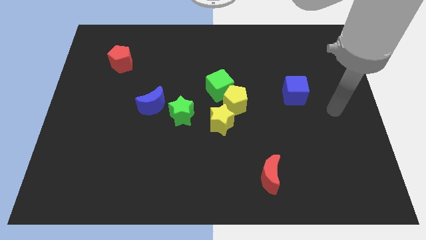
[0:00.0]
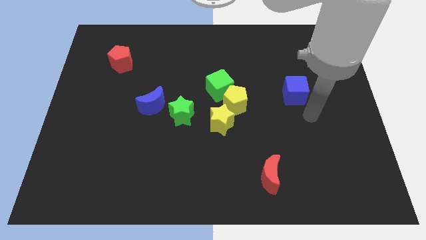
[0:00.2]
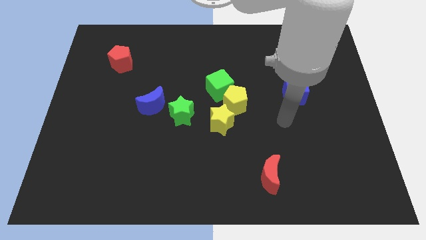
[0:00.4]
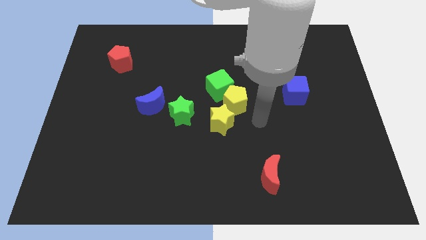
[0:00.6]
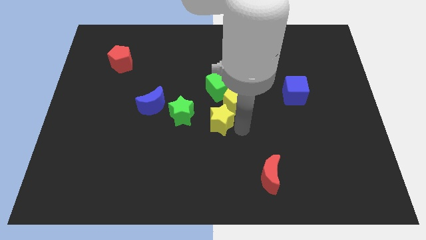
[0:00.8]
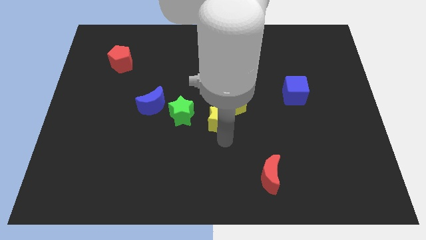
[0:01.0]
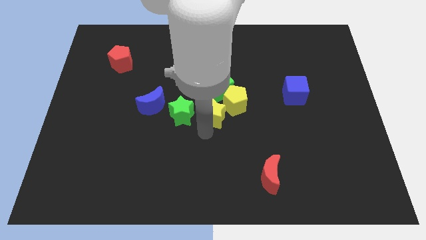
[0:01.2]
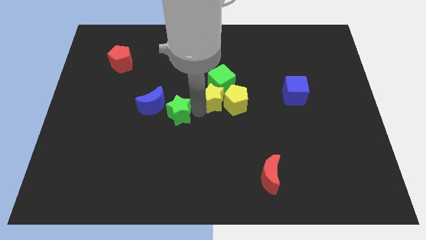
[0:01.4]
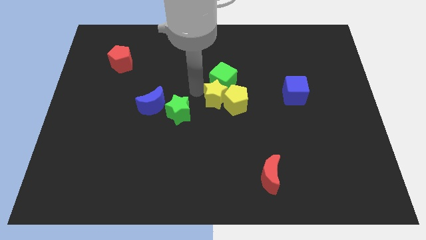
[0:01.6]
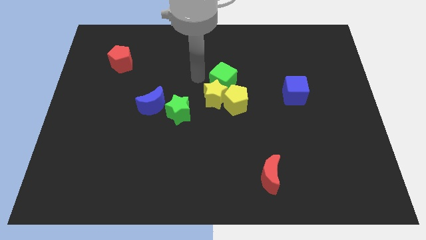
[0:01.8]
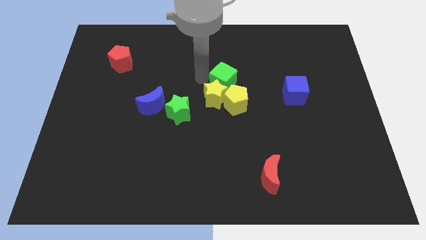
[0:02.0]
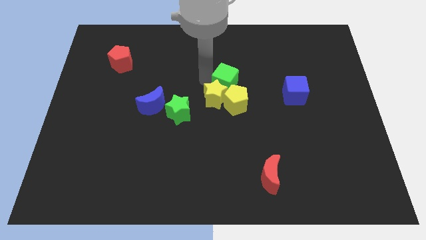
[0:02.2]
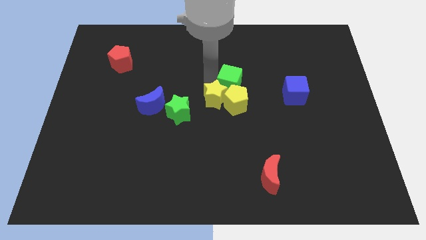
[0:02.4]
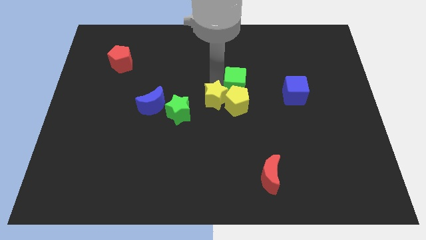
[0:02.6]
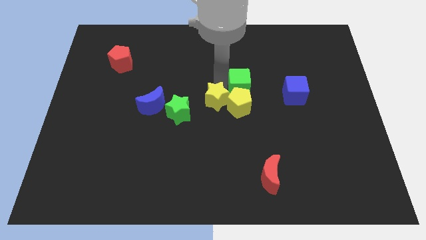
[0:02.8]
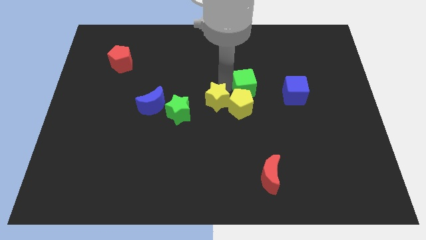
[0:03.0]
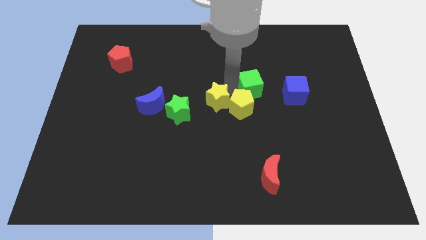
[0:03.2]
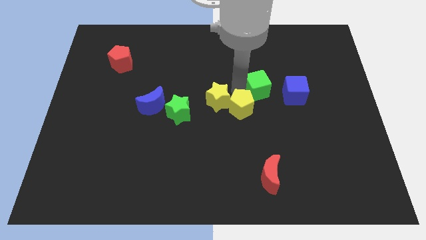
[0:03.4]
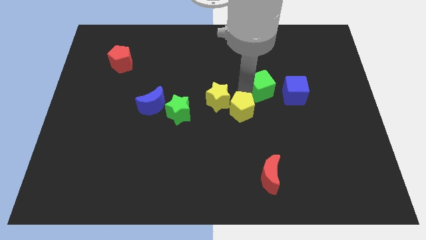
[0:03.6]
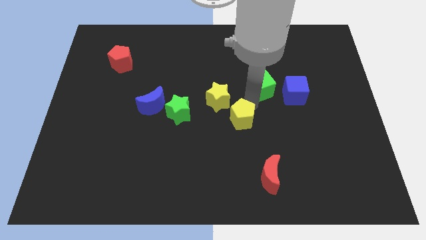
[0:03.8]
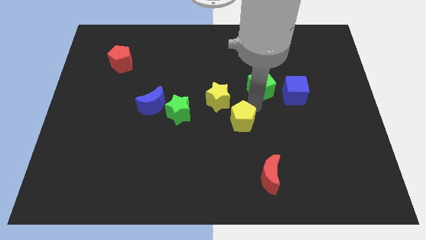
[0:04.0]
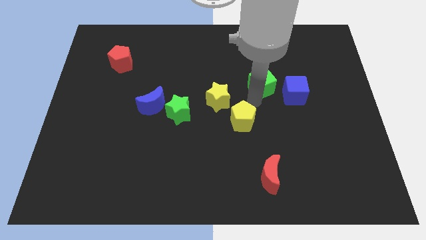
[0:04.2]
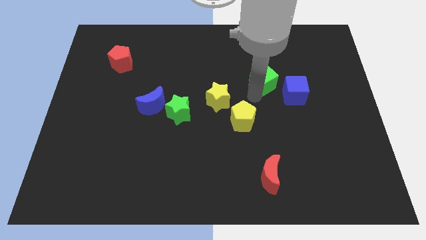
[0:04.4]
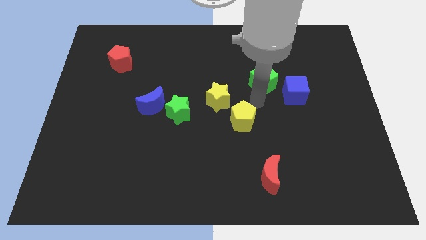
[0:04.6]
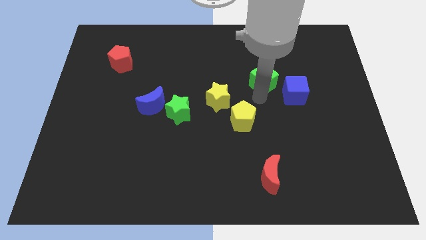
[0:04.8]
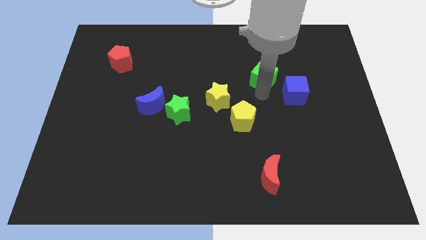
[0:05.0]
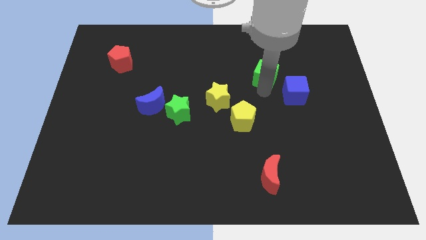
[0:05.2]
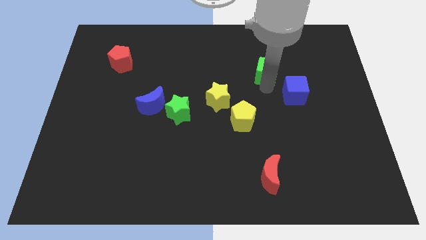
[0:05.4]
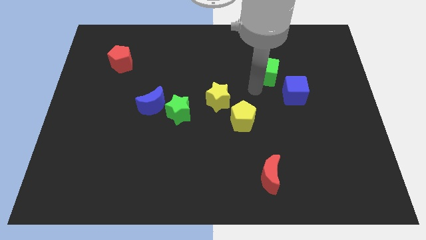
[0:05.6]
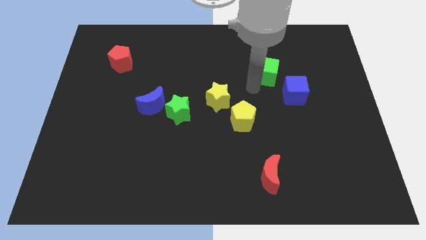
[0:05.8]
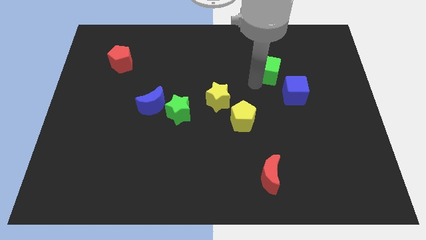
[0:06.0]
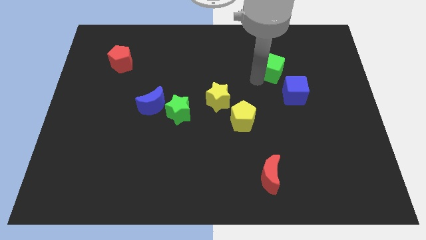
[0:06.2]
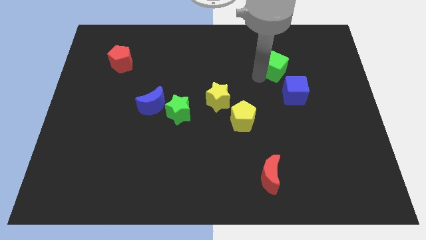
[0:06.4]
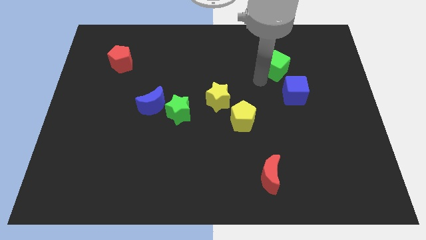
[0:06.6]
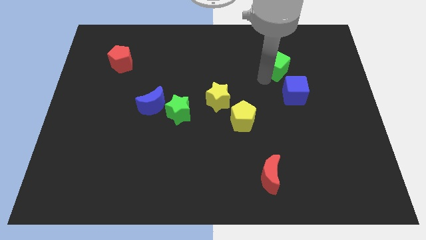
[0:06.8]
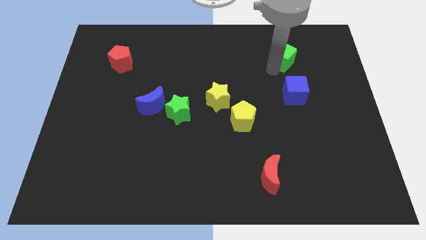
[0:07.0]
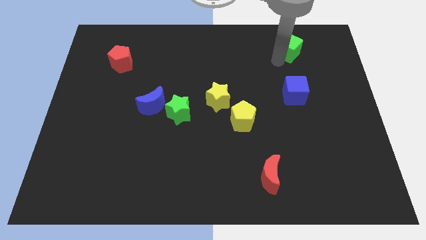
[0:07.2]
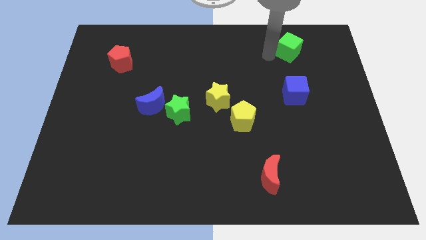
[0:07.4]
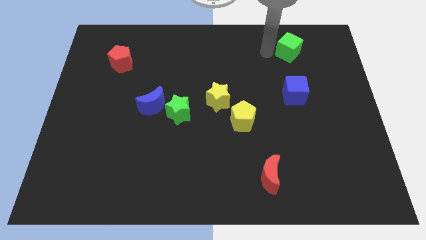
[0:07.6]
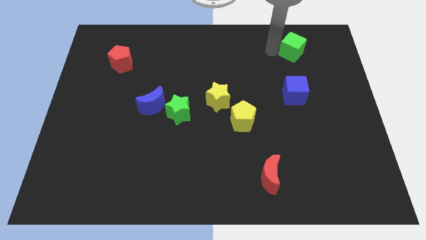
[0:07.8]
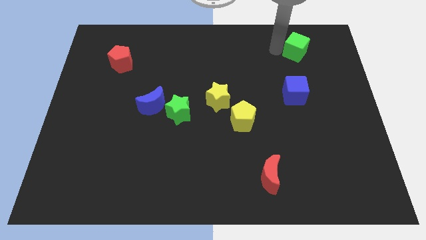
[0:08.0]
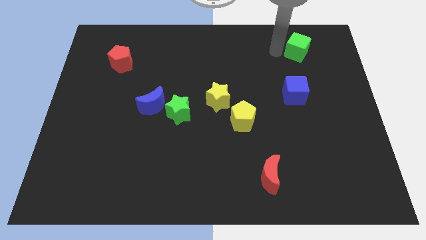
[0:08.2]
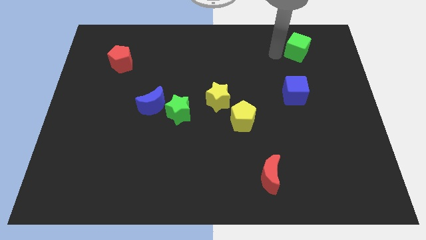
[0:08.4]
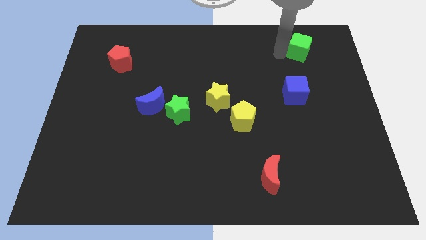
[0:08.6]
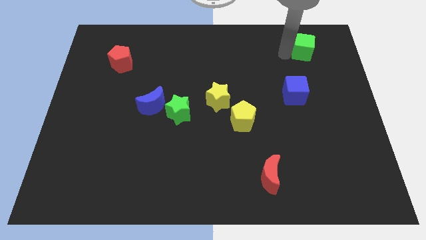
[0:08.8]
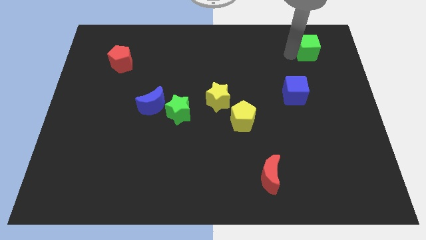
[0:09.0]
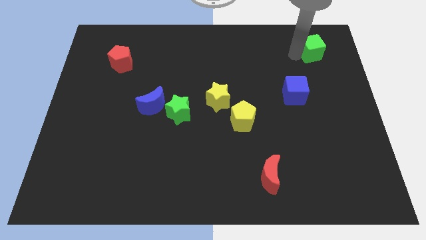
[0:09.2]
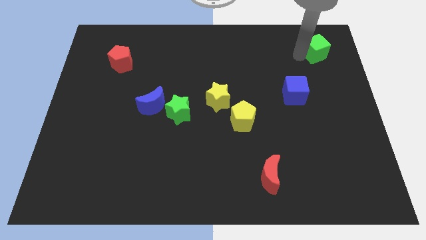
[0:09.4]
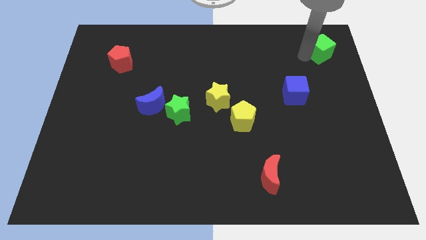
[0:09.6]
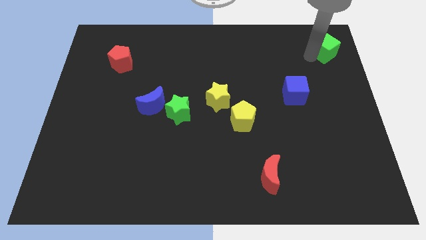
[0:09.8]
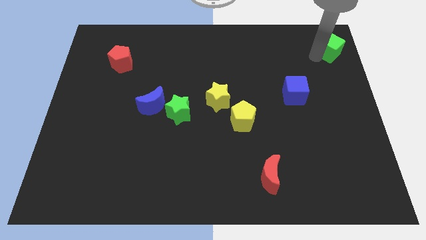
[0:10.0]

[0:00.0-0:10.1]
move the green cube to the top right of the board

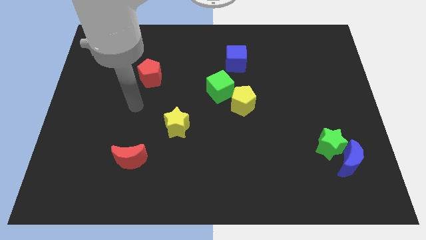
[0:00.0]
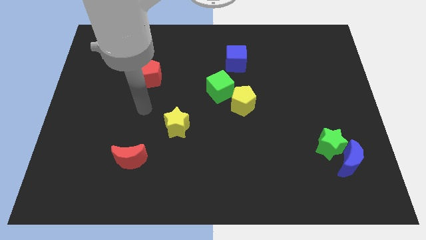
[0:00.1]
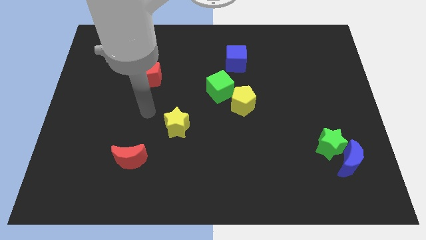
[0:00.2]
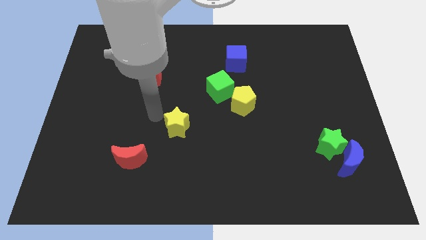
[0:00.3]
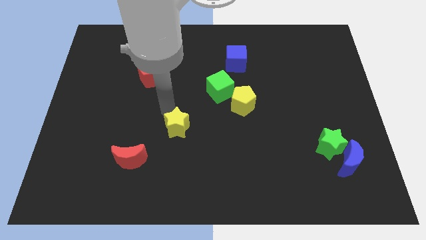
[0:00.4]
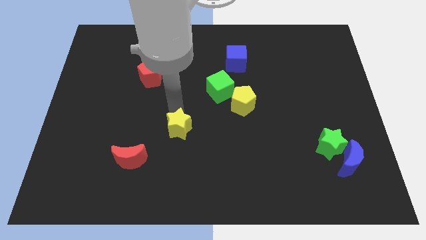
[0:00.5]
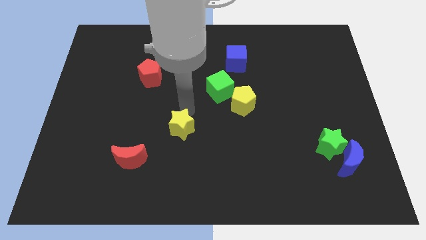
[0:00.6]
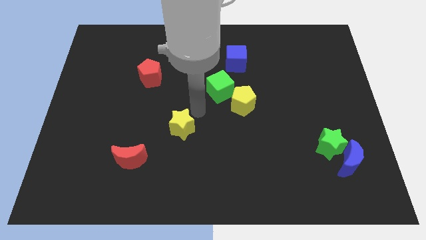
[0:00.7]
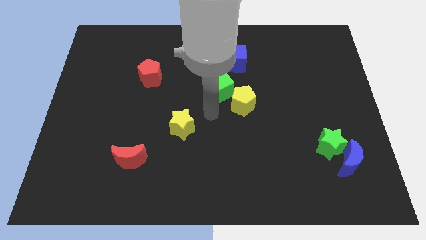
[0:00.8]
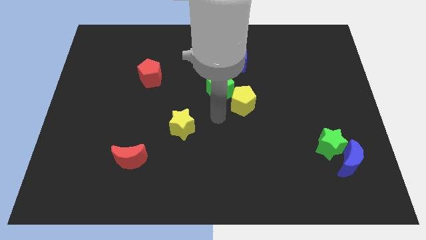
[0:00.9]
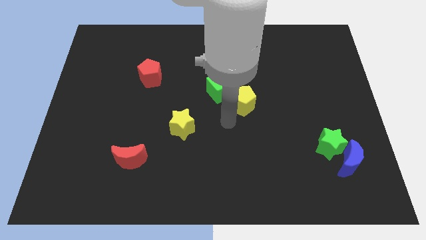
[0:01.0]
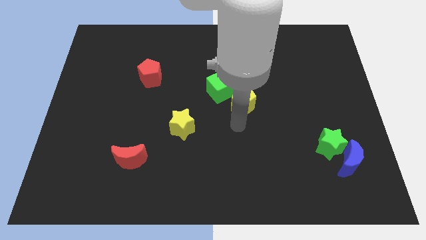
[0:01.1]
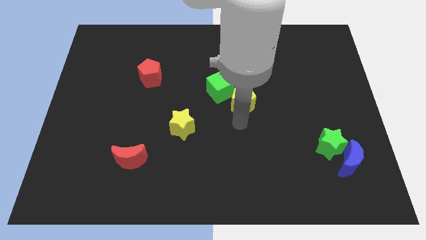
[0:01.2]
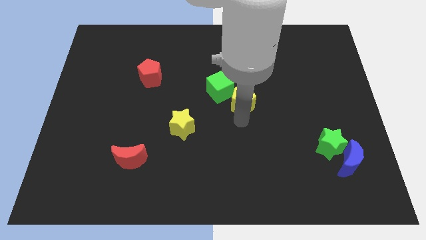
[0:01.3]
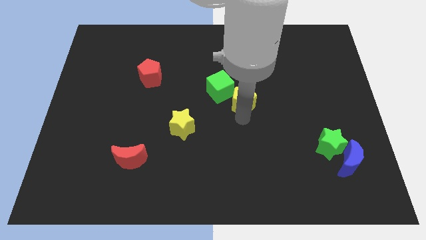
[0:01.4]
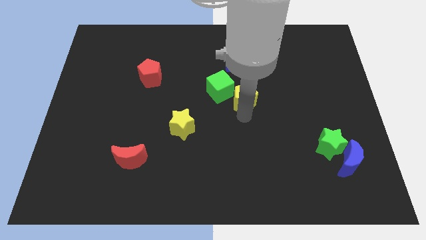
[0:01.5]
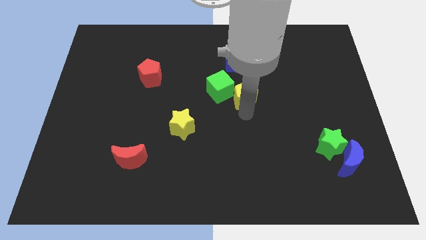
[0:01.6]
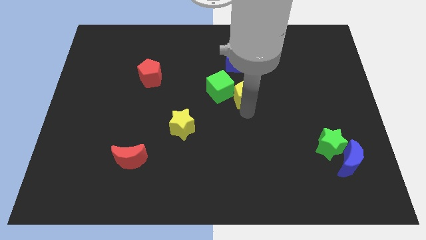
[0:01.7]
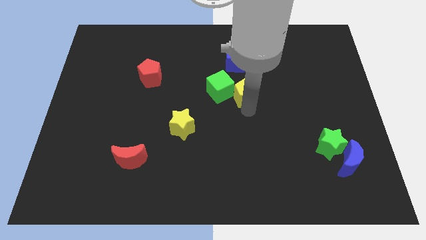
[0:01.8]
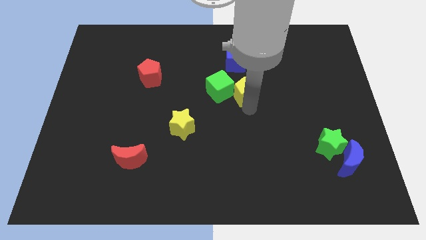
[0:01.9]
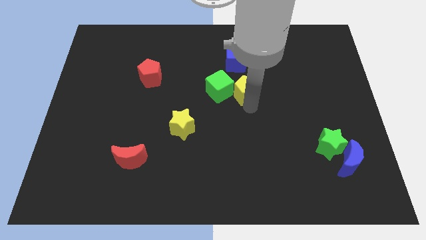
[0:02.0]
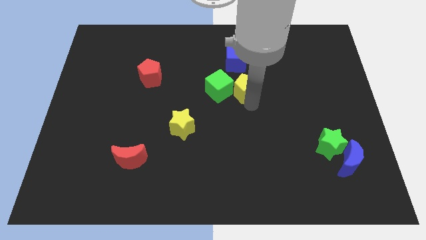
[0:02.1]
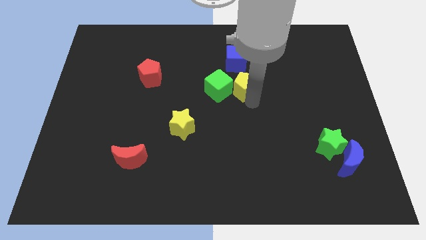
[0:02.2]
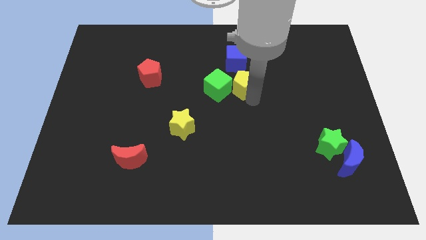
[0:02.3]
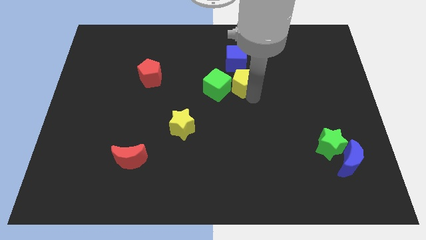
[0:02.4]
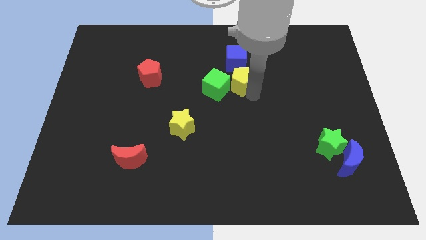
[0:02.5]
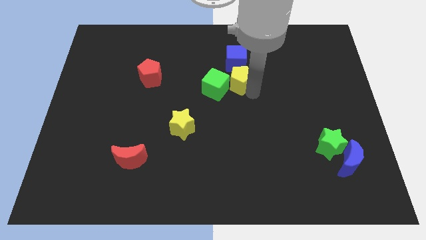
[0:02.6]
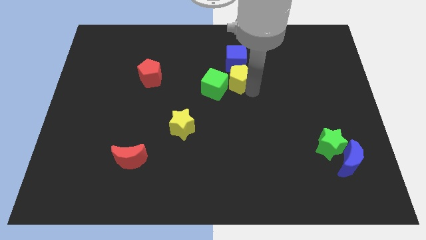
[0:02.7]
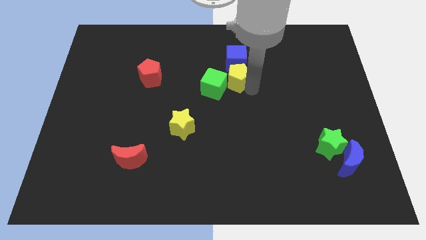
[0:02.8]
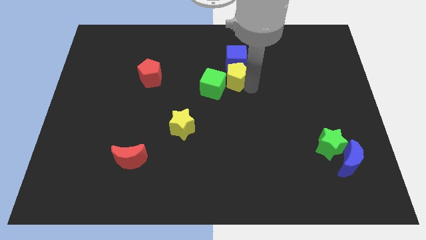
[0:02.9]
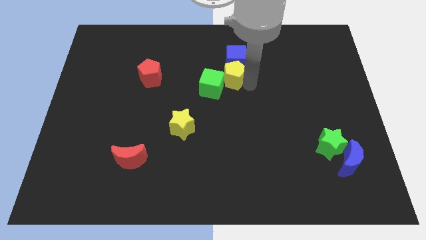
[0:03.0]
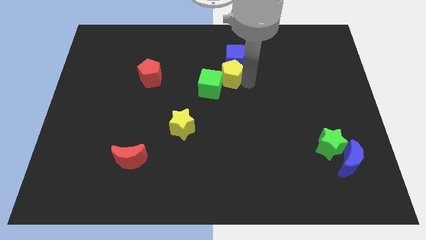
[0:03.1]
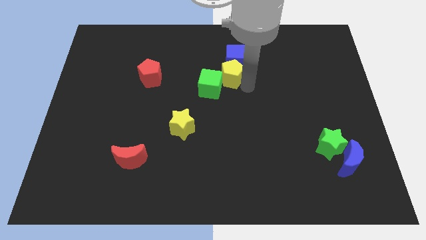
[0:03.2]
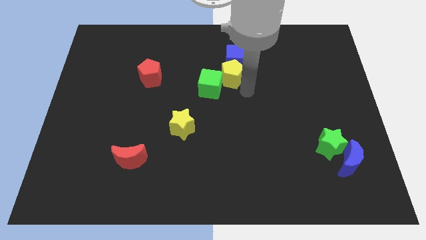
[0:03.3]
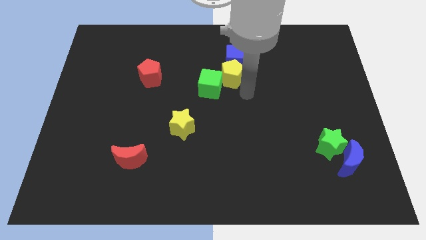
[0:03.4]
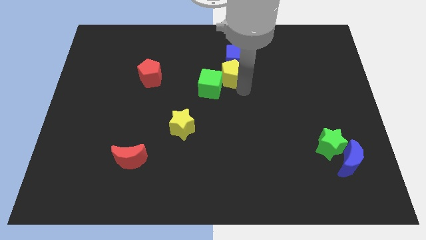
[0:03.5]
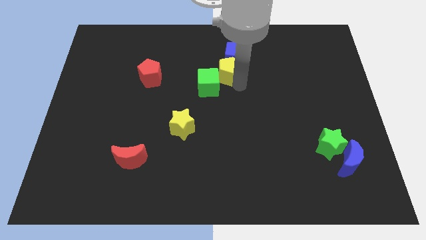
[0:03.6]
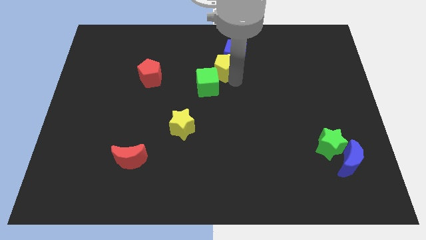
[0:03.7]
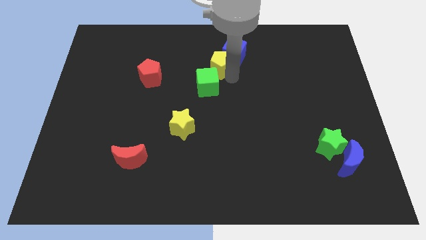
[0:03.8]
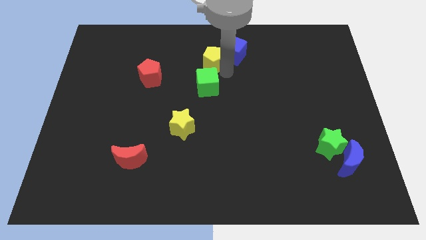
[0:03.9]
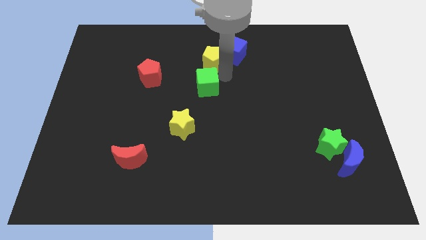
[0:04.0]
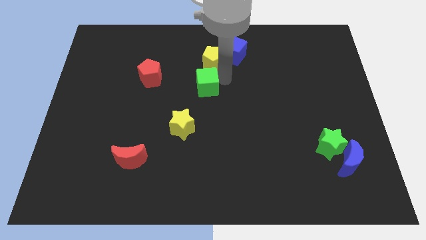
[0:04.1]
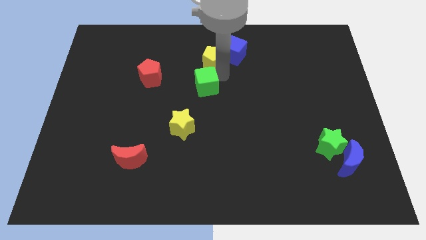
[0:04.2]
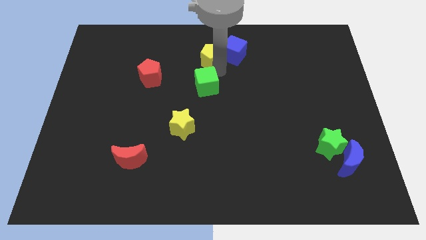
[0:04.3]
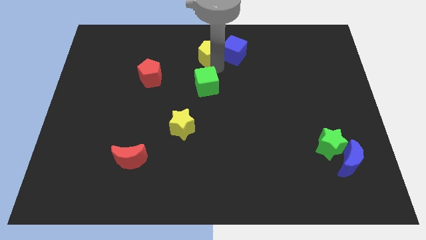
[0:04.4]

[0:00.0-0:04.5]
push the yellow pentagon to the towards your base
